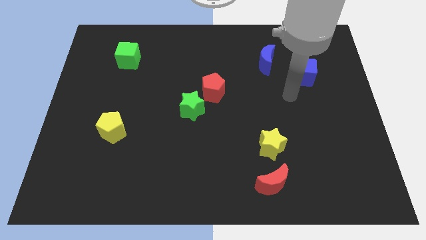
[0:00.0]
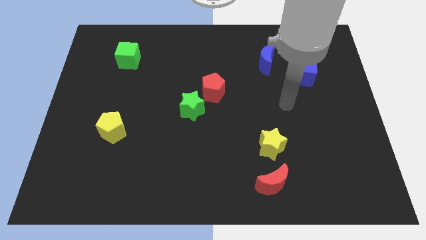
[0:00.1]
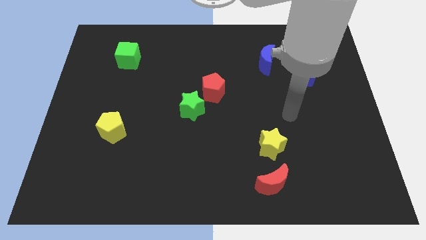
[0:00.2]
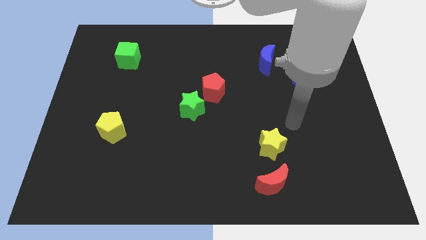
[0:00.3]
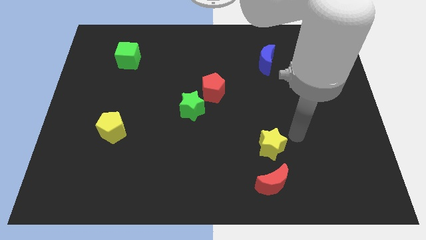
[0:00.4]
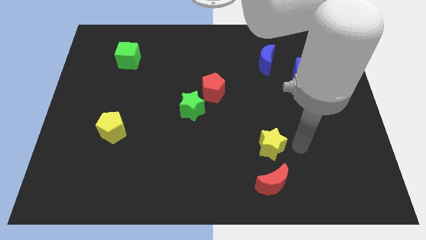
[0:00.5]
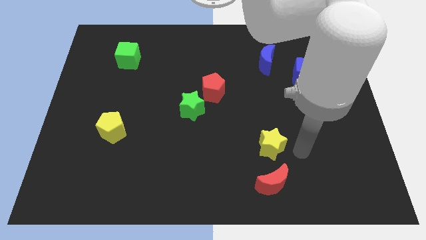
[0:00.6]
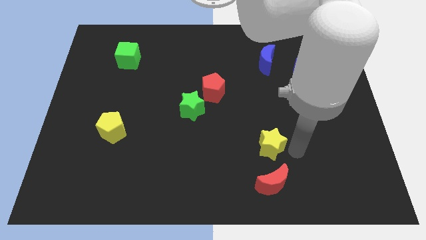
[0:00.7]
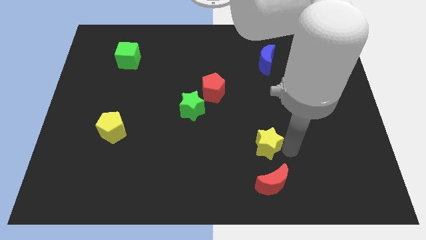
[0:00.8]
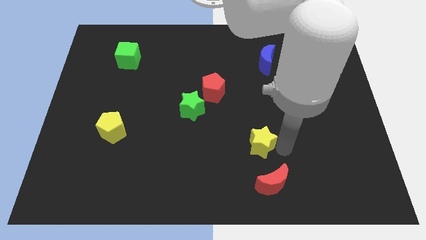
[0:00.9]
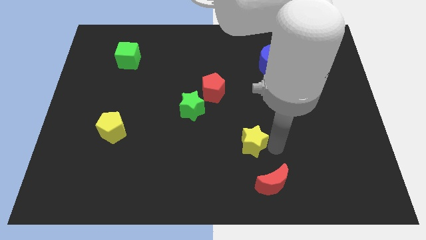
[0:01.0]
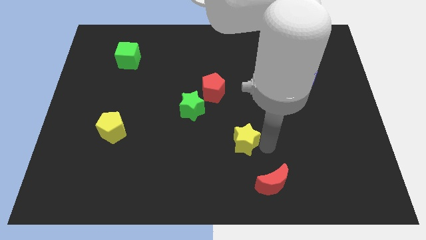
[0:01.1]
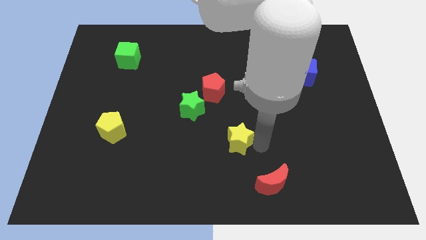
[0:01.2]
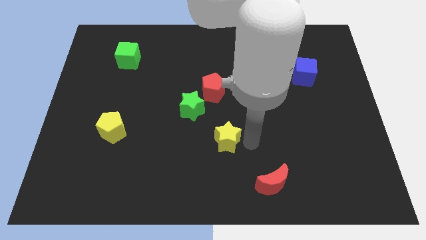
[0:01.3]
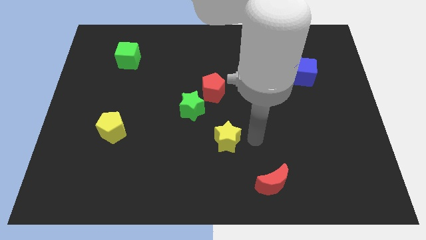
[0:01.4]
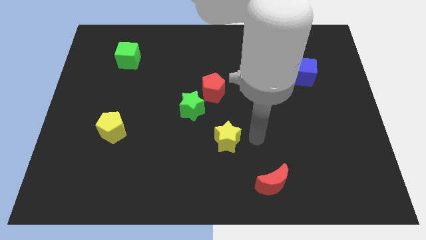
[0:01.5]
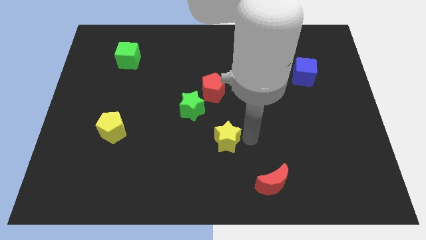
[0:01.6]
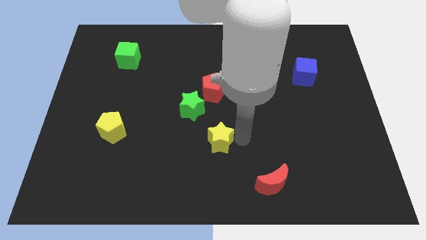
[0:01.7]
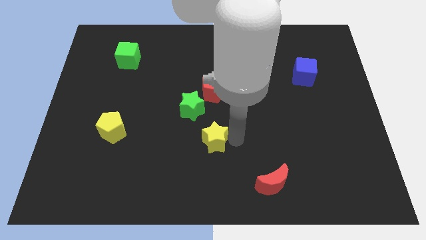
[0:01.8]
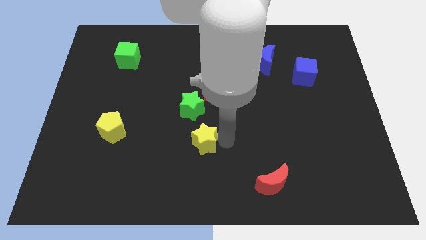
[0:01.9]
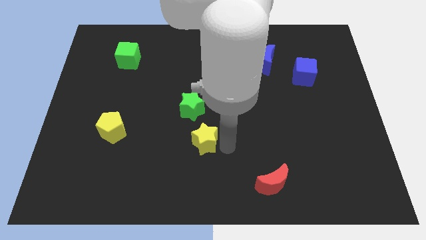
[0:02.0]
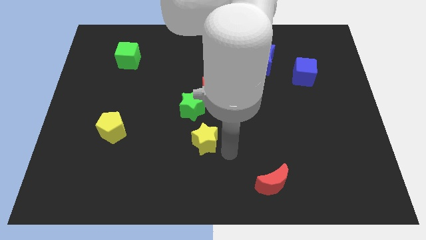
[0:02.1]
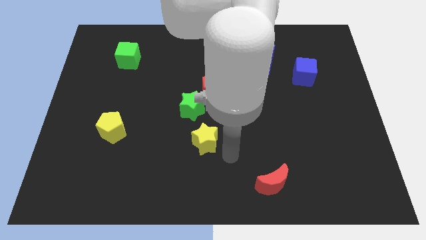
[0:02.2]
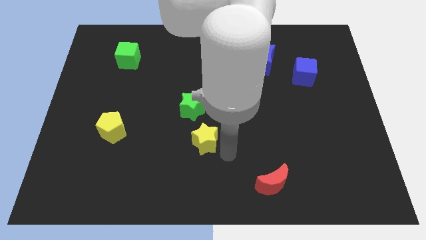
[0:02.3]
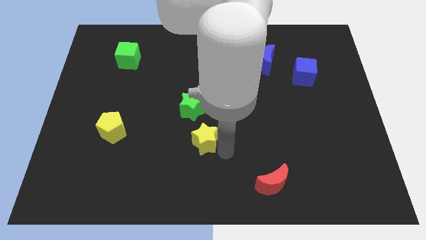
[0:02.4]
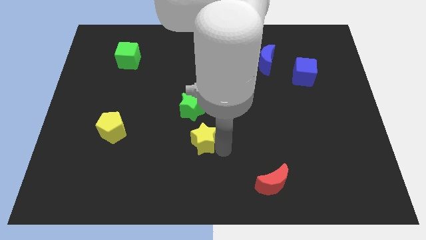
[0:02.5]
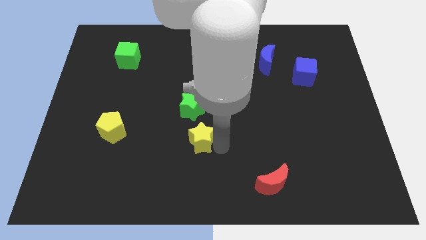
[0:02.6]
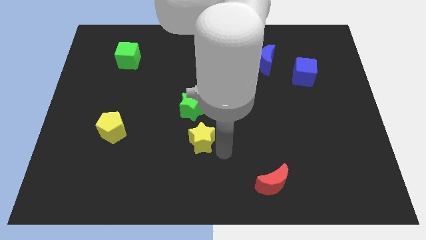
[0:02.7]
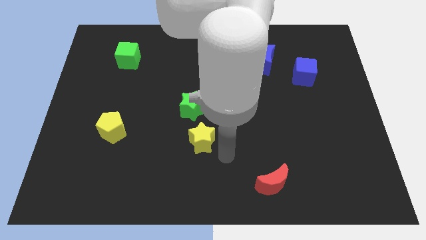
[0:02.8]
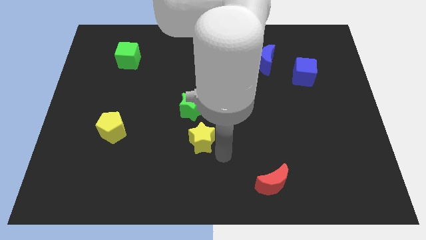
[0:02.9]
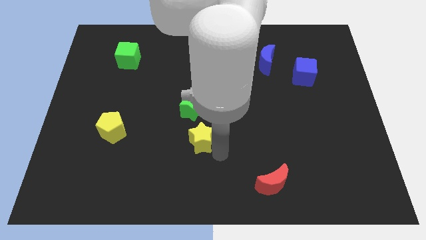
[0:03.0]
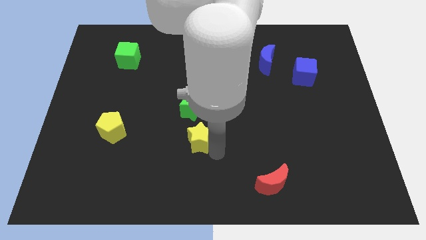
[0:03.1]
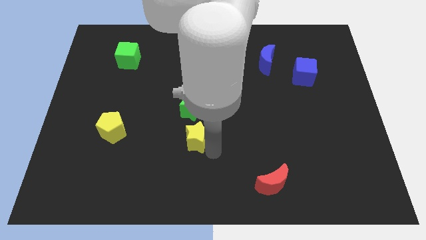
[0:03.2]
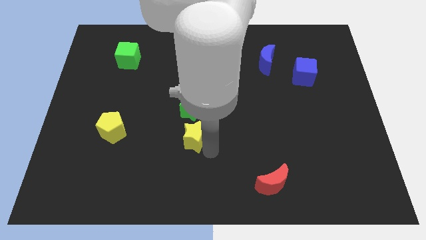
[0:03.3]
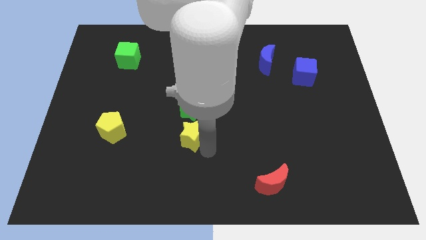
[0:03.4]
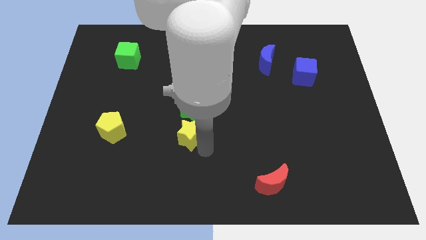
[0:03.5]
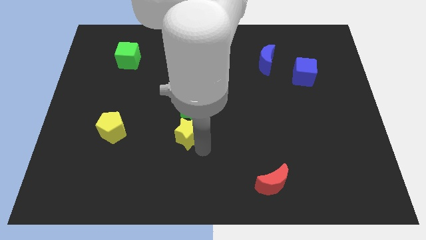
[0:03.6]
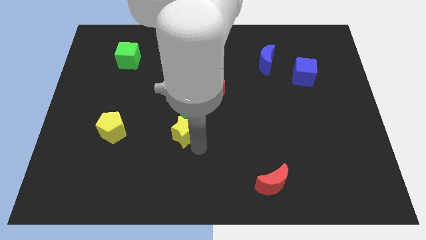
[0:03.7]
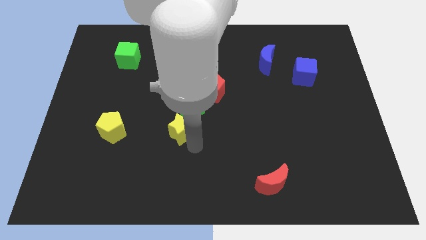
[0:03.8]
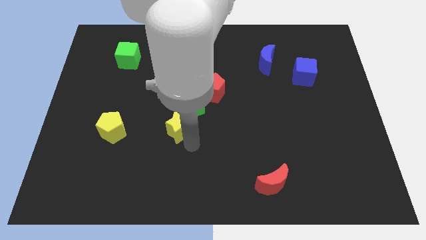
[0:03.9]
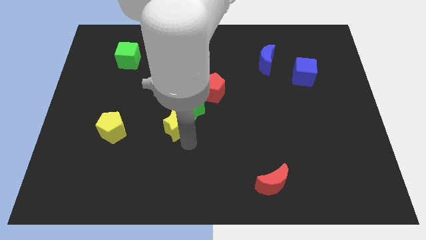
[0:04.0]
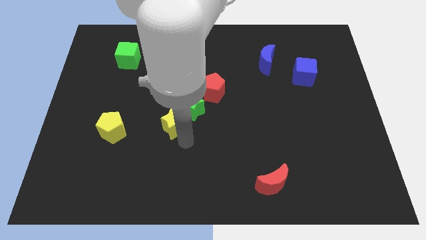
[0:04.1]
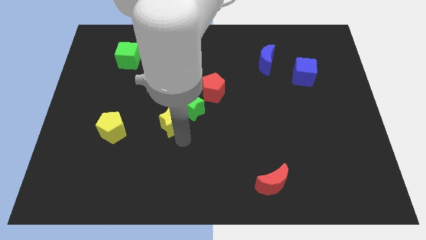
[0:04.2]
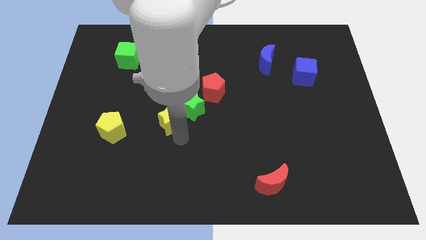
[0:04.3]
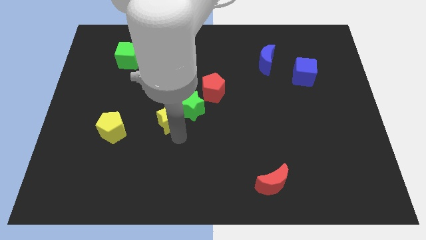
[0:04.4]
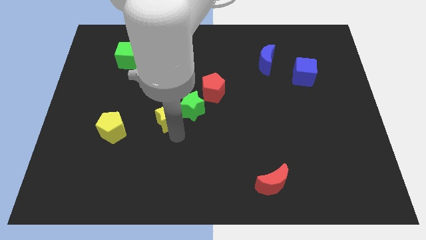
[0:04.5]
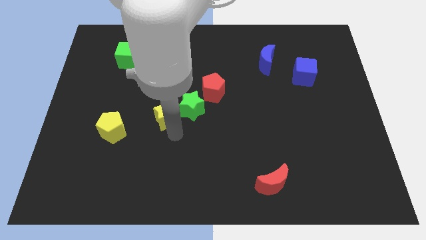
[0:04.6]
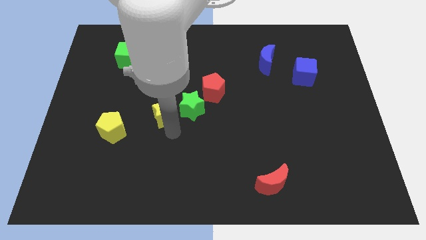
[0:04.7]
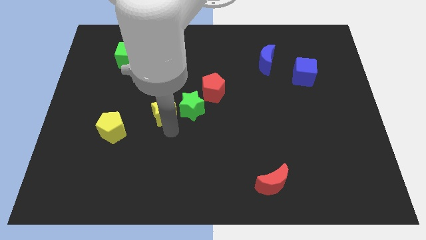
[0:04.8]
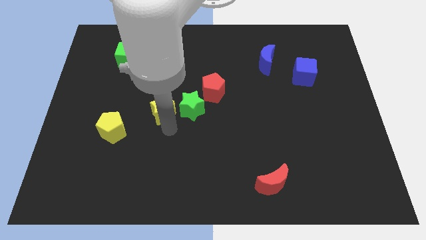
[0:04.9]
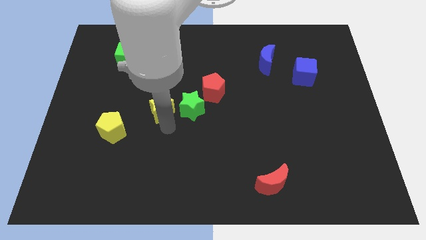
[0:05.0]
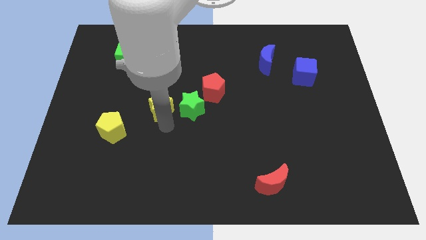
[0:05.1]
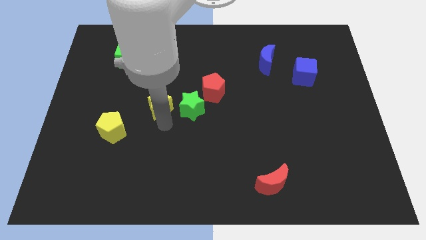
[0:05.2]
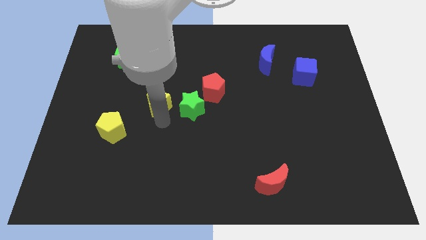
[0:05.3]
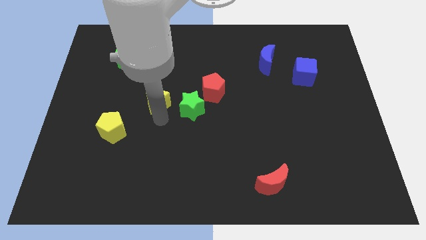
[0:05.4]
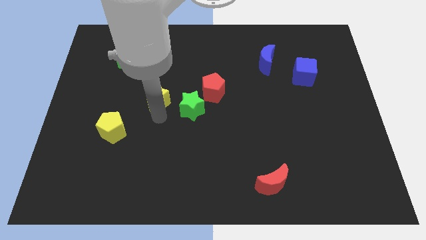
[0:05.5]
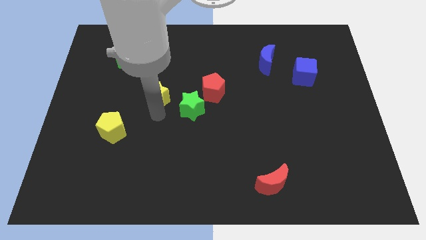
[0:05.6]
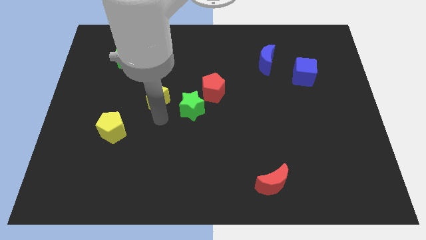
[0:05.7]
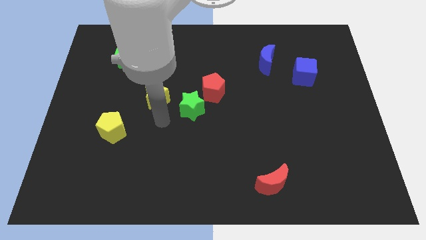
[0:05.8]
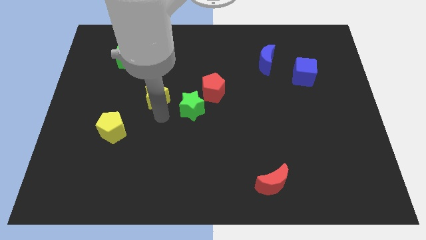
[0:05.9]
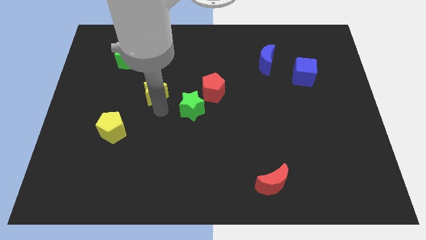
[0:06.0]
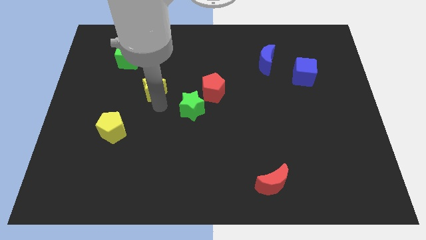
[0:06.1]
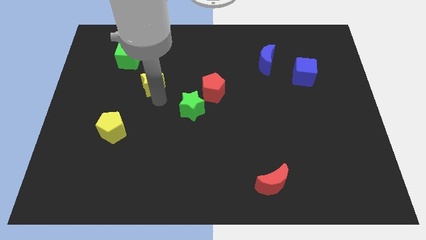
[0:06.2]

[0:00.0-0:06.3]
slide the yellow star to the bottom right of the green cube

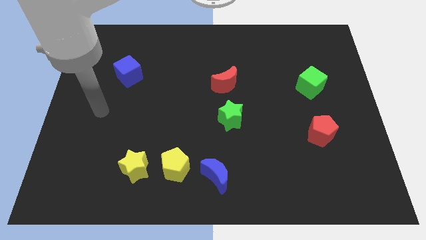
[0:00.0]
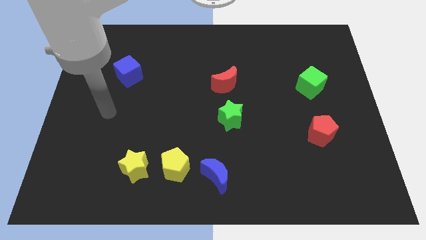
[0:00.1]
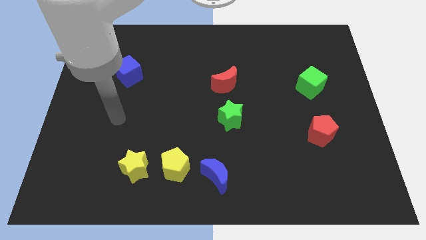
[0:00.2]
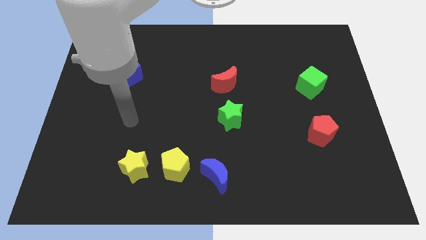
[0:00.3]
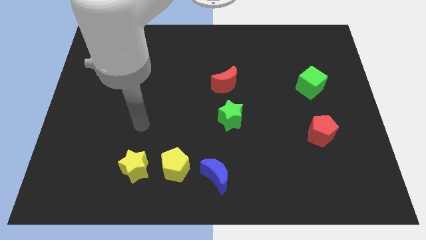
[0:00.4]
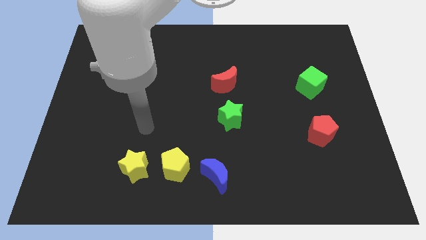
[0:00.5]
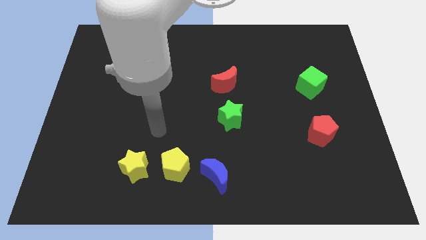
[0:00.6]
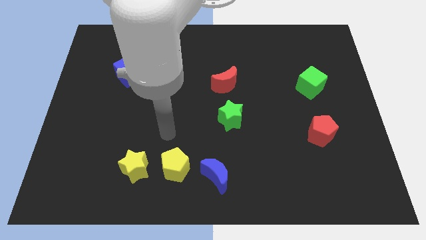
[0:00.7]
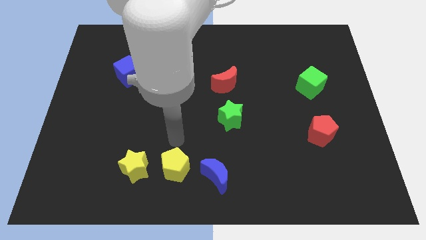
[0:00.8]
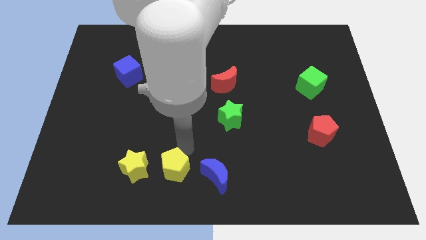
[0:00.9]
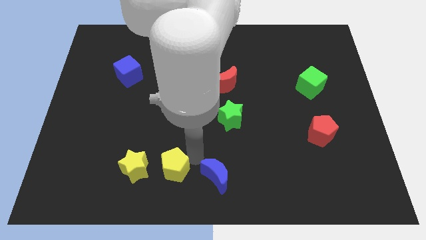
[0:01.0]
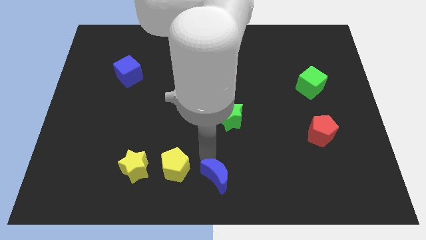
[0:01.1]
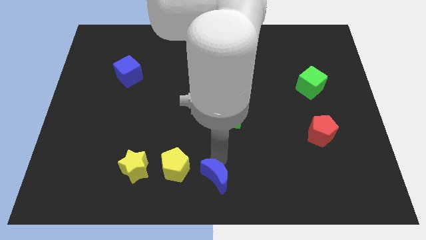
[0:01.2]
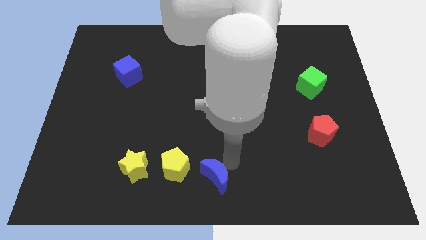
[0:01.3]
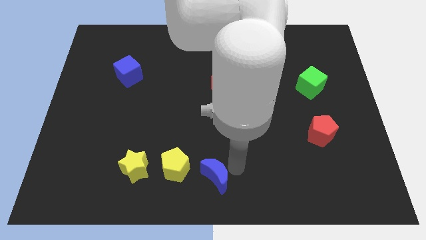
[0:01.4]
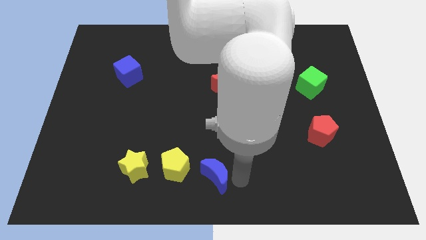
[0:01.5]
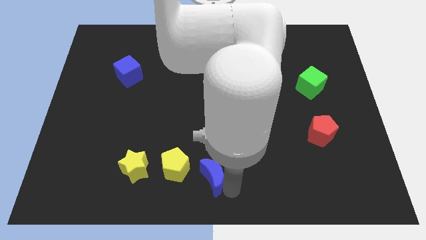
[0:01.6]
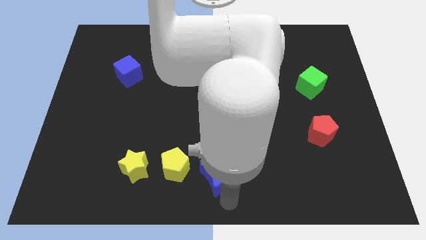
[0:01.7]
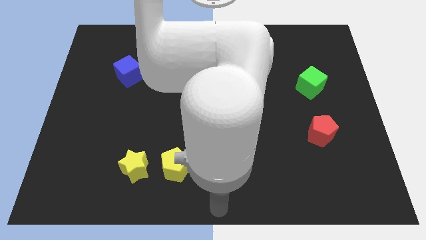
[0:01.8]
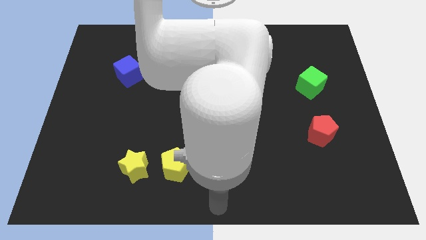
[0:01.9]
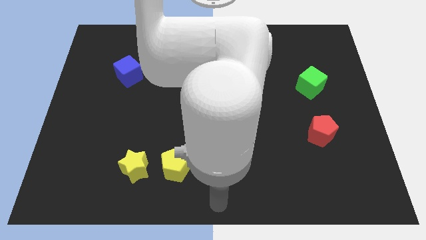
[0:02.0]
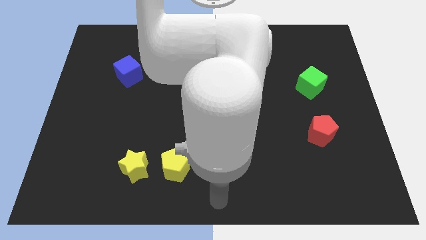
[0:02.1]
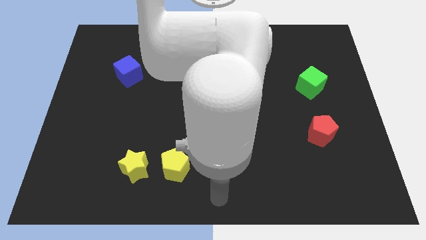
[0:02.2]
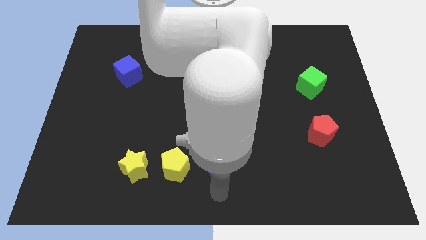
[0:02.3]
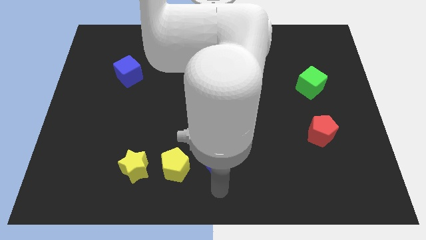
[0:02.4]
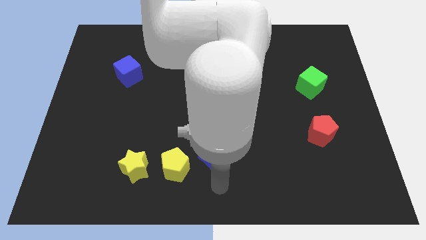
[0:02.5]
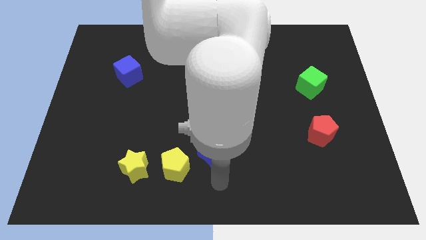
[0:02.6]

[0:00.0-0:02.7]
slide the blue moon to the bottom left side of the green star
